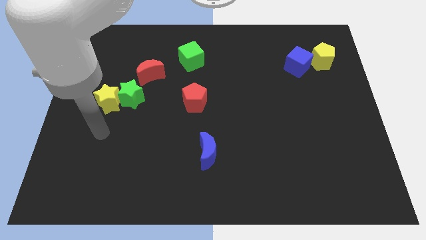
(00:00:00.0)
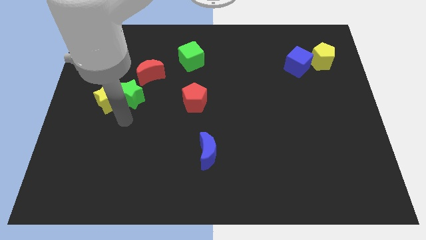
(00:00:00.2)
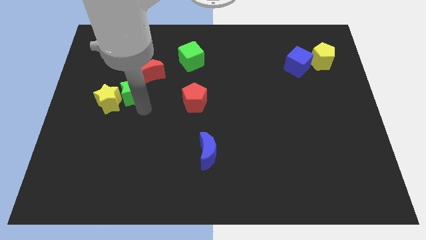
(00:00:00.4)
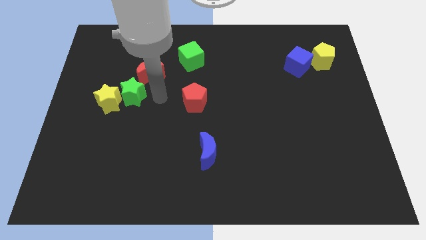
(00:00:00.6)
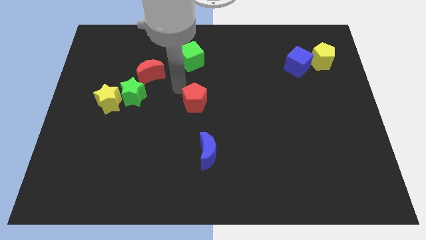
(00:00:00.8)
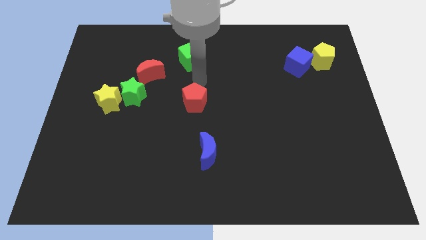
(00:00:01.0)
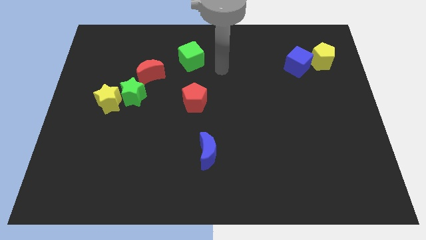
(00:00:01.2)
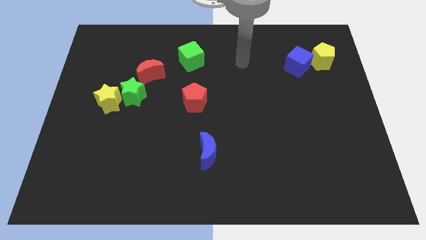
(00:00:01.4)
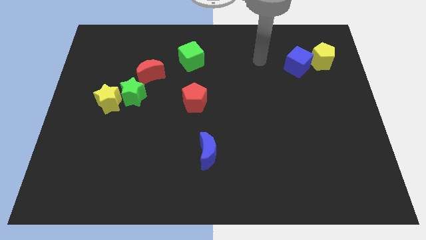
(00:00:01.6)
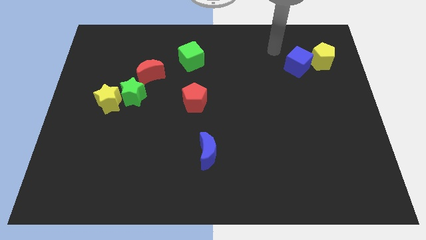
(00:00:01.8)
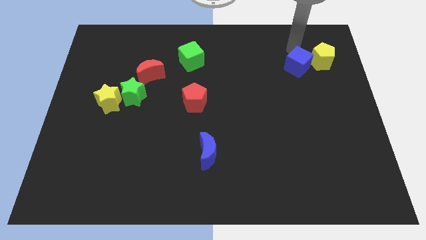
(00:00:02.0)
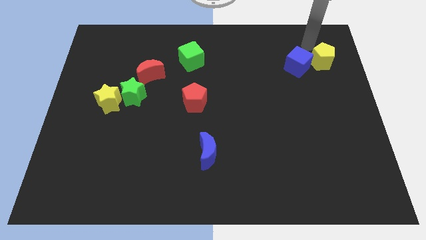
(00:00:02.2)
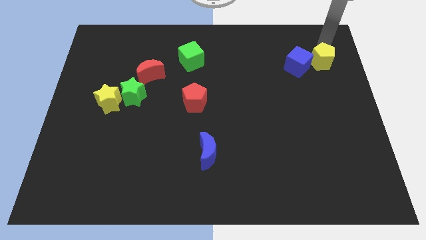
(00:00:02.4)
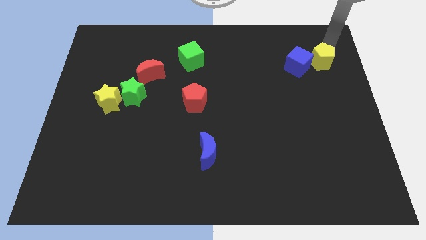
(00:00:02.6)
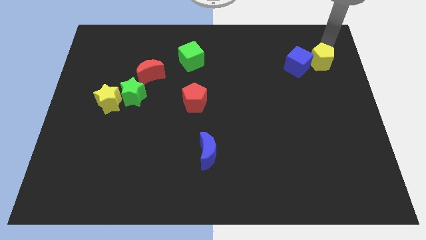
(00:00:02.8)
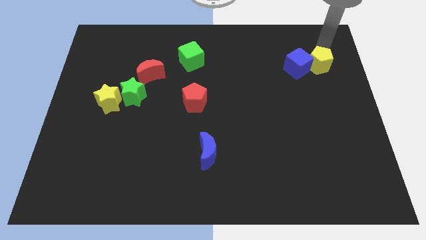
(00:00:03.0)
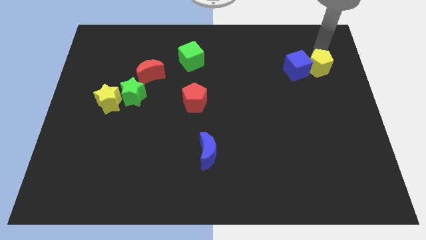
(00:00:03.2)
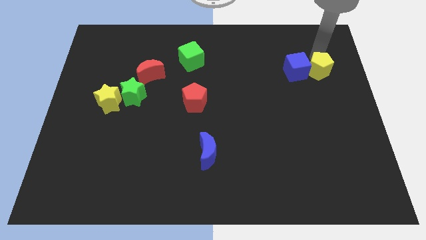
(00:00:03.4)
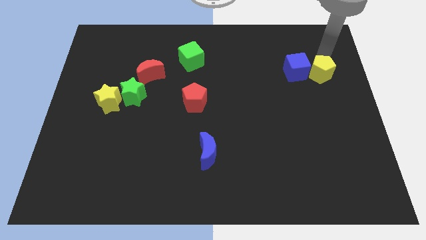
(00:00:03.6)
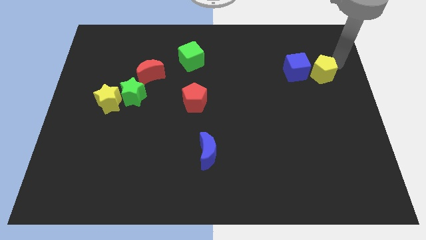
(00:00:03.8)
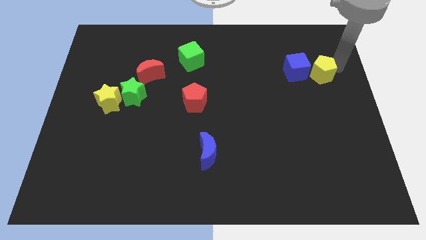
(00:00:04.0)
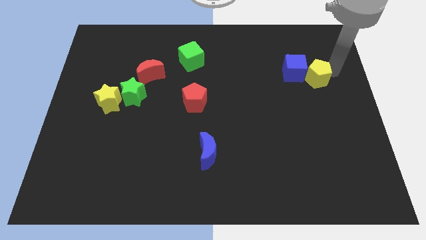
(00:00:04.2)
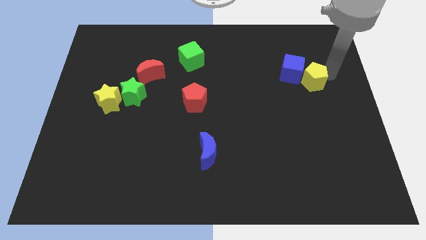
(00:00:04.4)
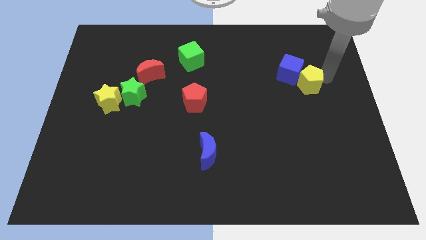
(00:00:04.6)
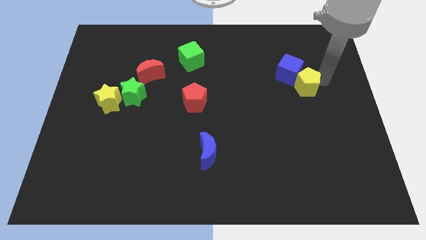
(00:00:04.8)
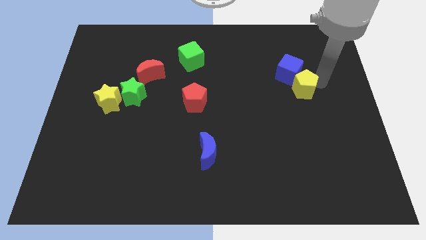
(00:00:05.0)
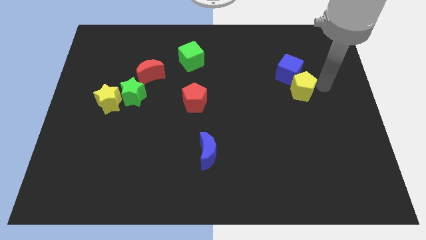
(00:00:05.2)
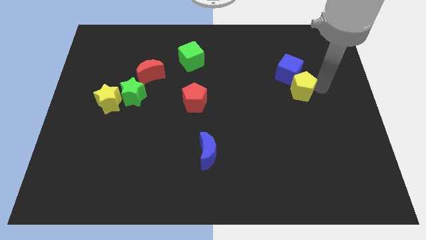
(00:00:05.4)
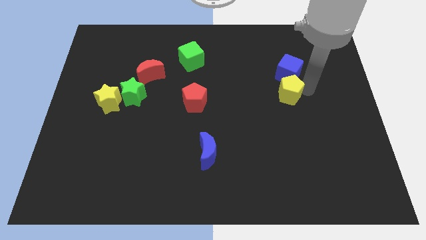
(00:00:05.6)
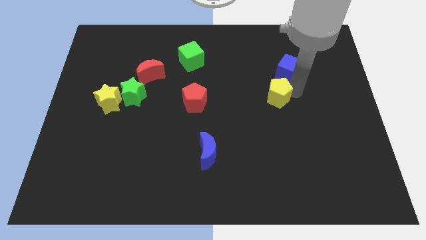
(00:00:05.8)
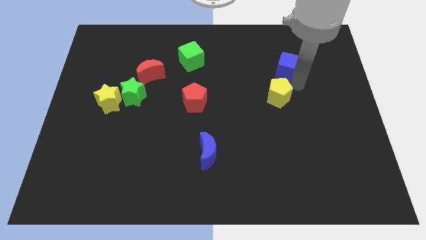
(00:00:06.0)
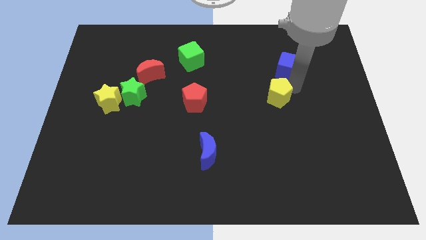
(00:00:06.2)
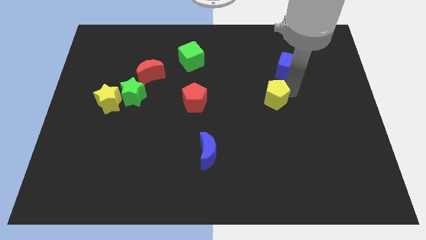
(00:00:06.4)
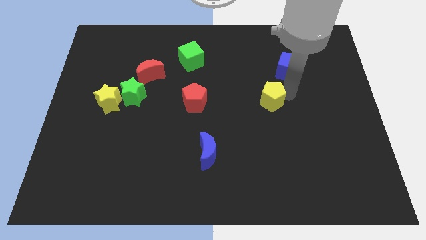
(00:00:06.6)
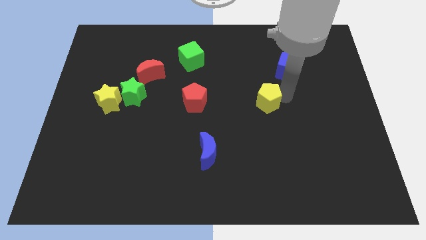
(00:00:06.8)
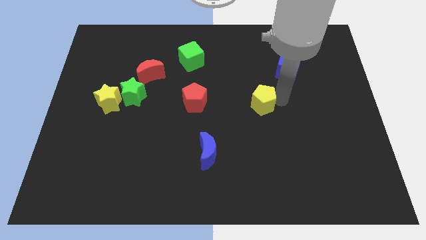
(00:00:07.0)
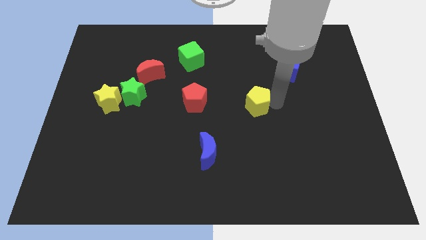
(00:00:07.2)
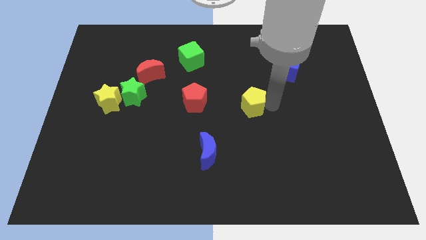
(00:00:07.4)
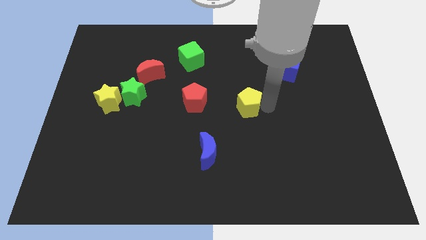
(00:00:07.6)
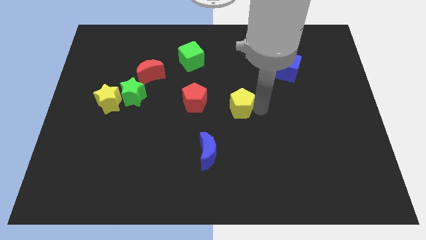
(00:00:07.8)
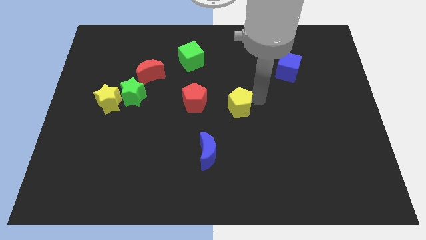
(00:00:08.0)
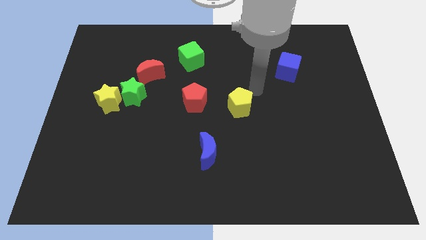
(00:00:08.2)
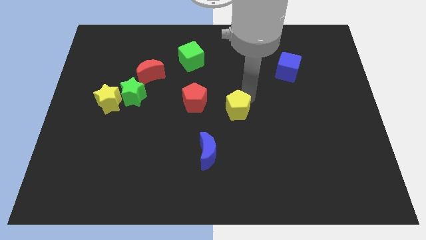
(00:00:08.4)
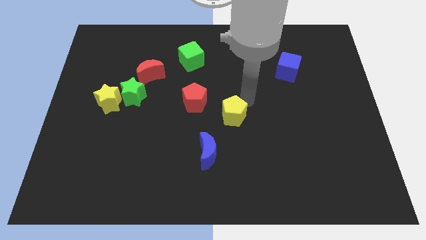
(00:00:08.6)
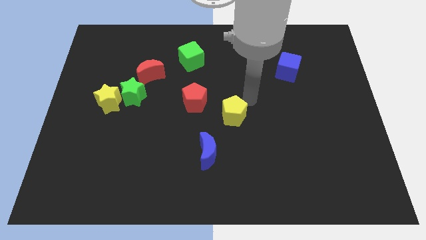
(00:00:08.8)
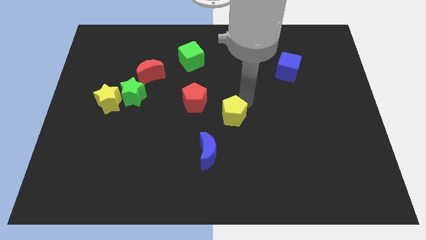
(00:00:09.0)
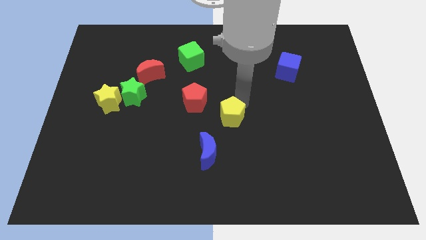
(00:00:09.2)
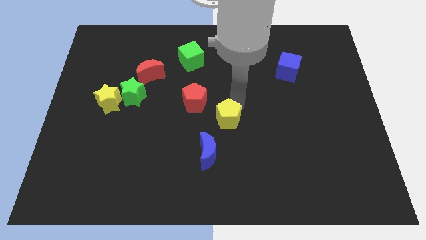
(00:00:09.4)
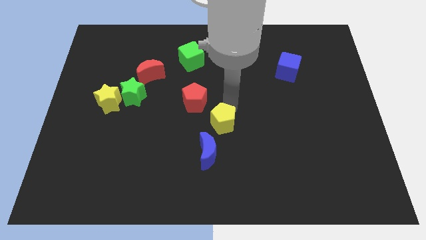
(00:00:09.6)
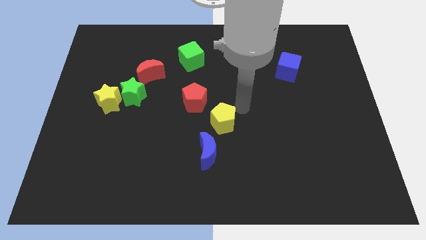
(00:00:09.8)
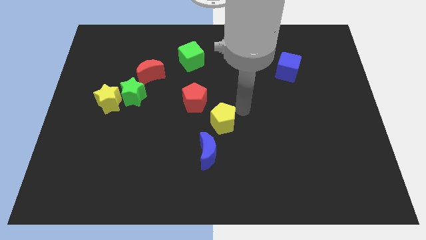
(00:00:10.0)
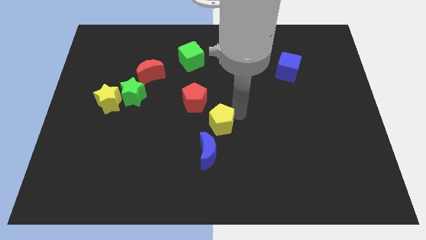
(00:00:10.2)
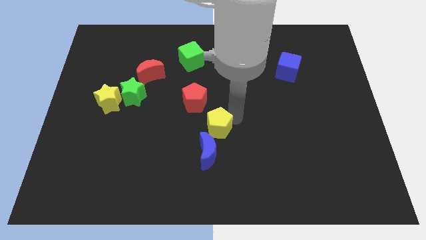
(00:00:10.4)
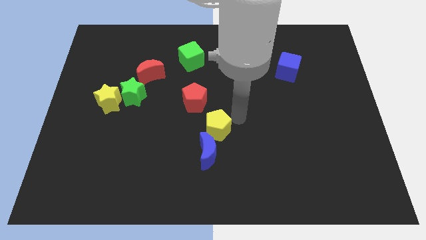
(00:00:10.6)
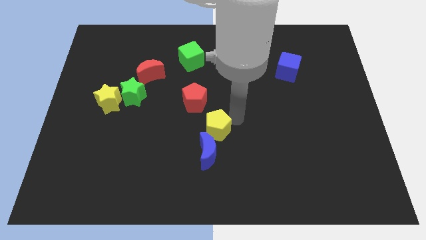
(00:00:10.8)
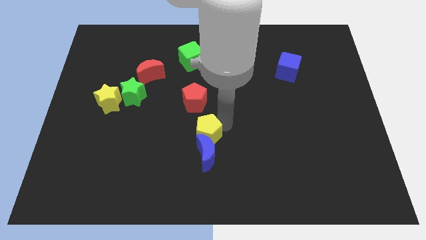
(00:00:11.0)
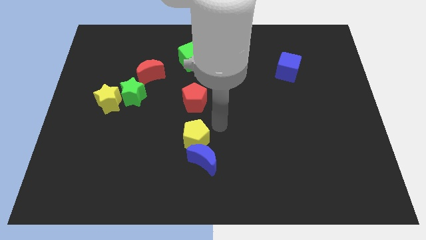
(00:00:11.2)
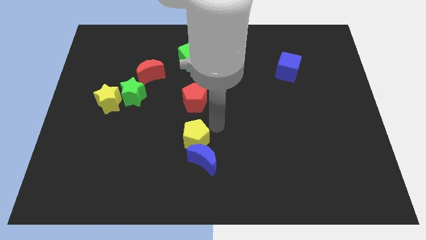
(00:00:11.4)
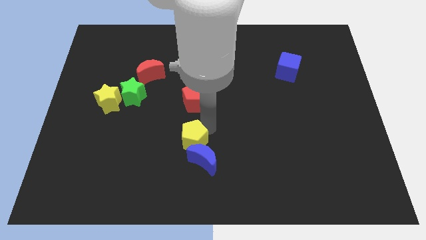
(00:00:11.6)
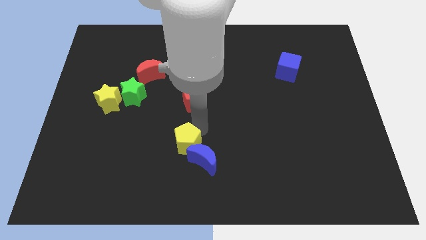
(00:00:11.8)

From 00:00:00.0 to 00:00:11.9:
put the yellow pentagon to the left of the blue moon
